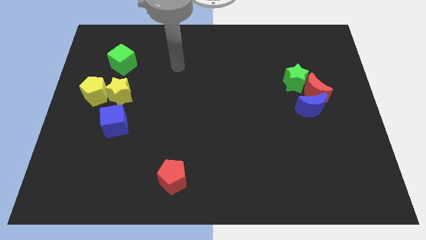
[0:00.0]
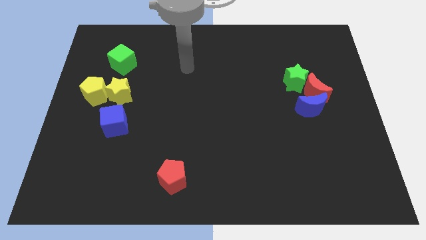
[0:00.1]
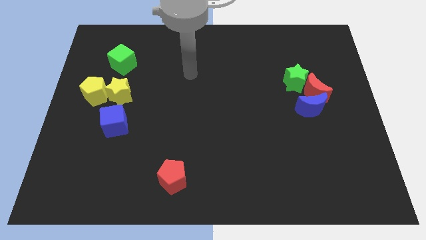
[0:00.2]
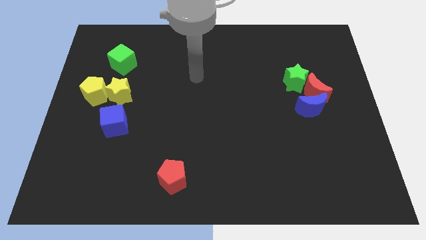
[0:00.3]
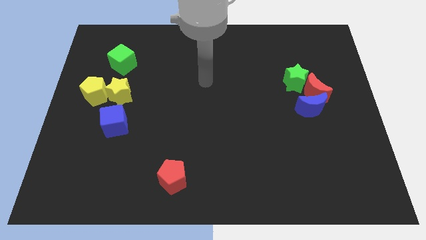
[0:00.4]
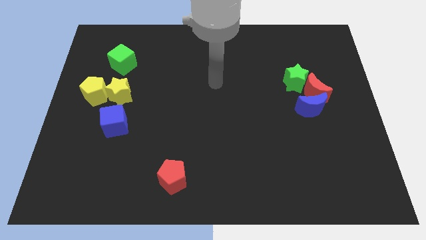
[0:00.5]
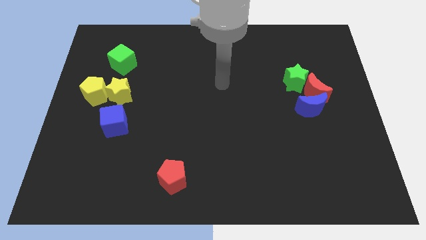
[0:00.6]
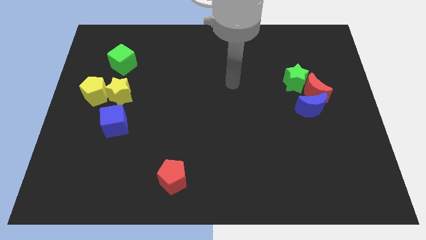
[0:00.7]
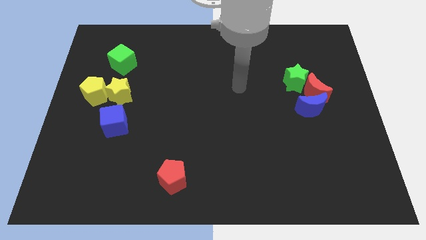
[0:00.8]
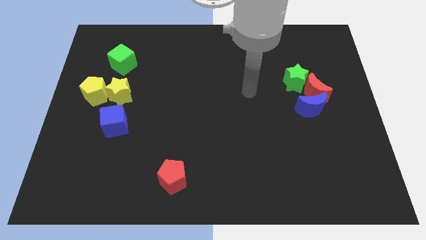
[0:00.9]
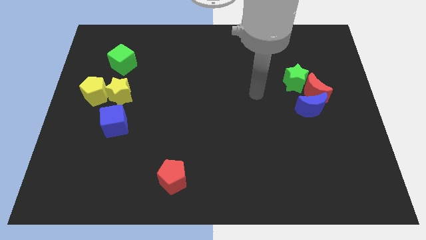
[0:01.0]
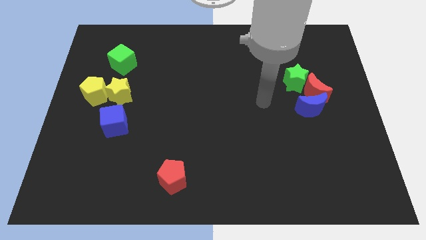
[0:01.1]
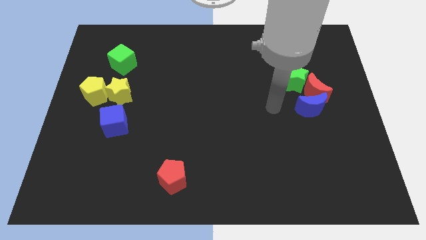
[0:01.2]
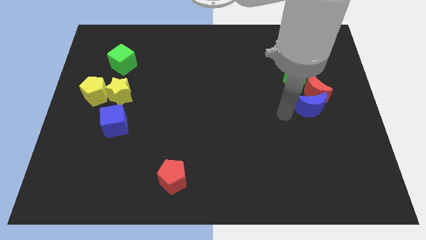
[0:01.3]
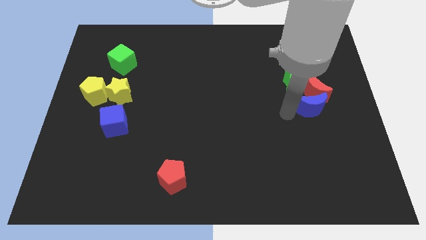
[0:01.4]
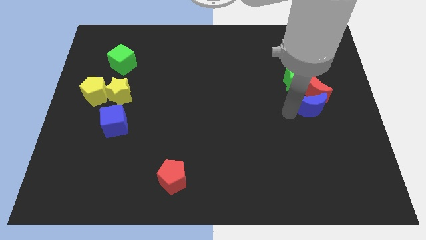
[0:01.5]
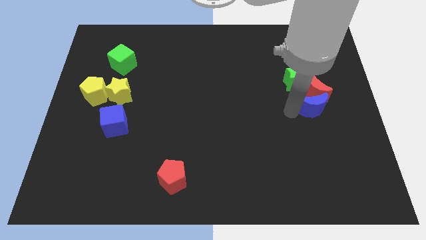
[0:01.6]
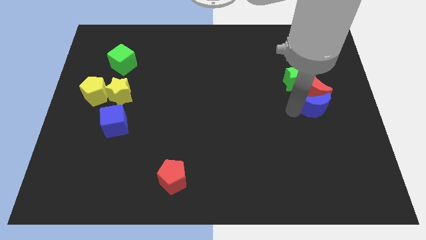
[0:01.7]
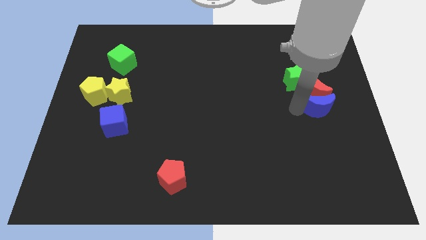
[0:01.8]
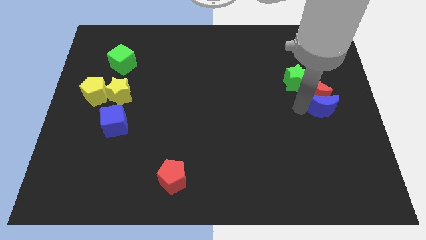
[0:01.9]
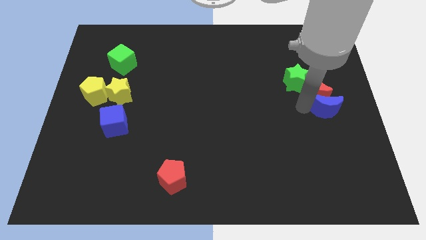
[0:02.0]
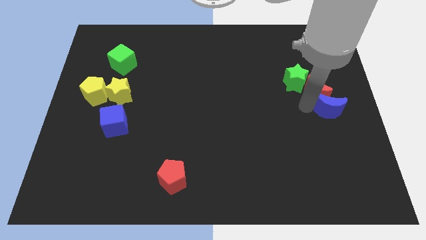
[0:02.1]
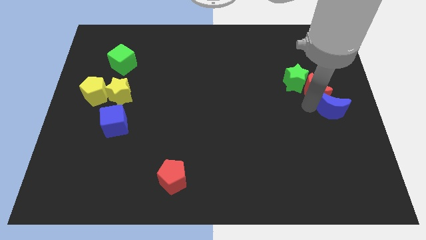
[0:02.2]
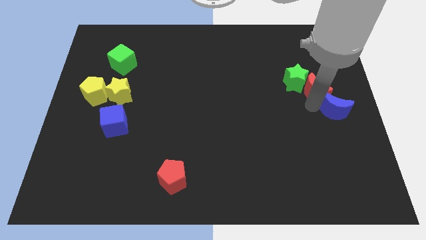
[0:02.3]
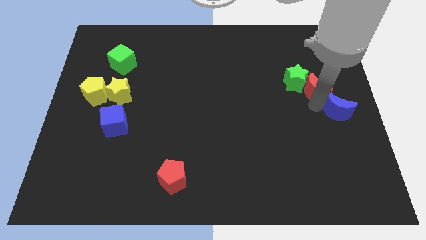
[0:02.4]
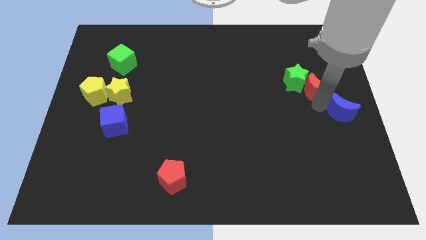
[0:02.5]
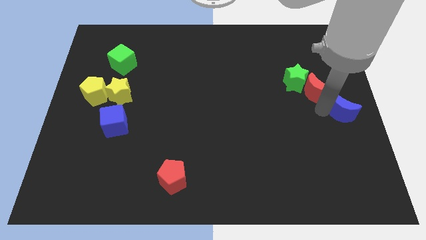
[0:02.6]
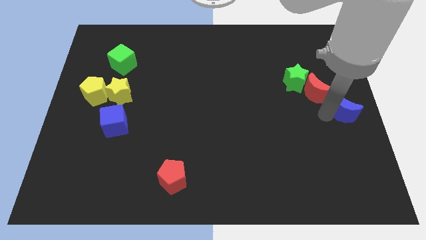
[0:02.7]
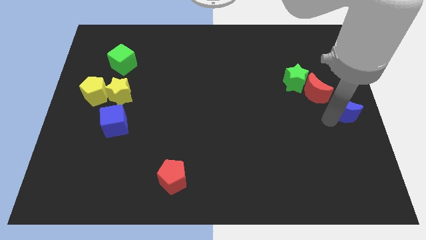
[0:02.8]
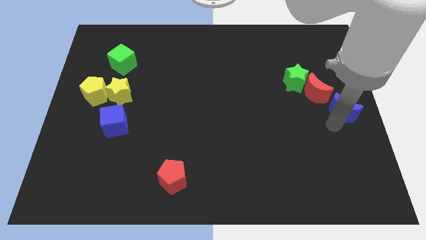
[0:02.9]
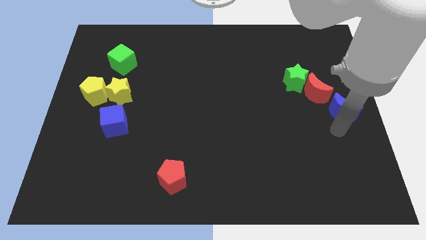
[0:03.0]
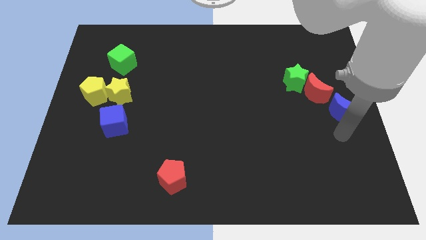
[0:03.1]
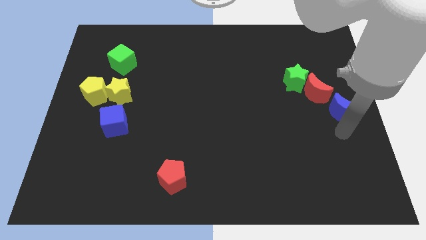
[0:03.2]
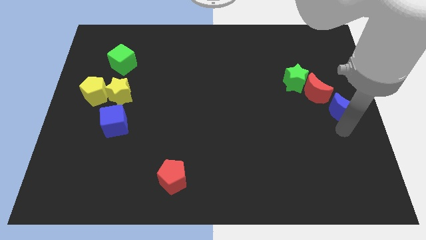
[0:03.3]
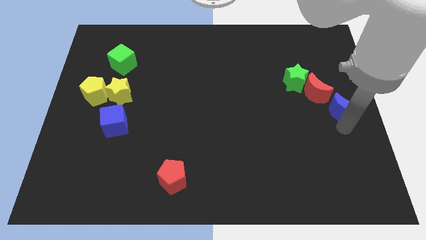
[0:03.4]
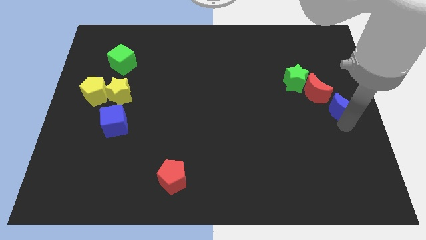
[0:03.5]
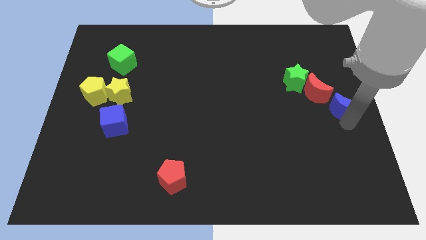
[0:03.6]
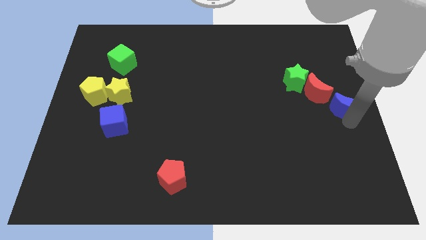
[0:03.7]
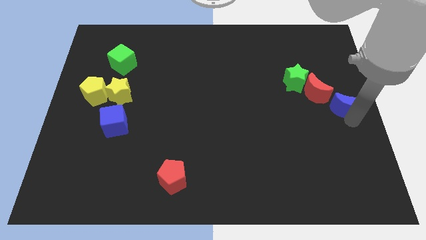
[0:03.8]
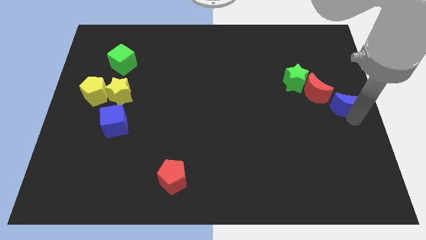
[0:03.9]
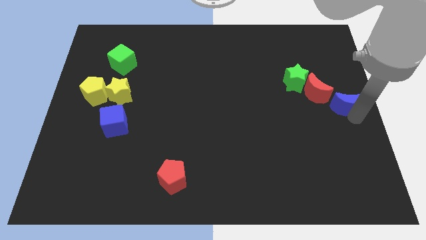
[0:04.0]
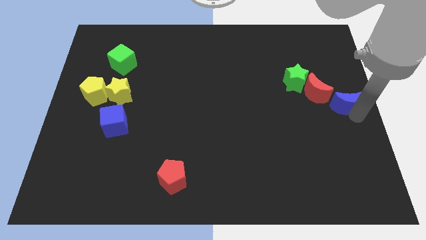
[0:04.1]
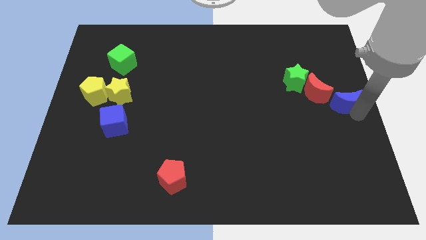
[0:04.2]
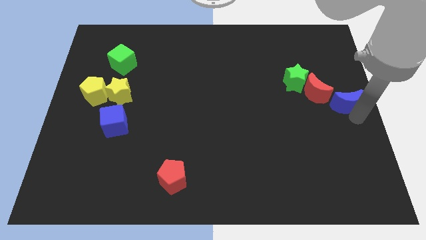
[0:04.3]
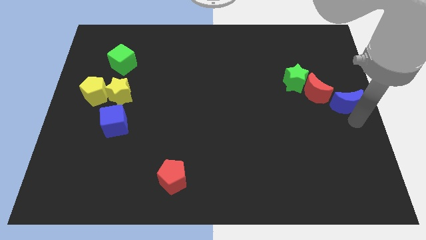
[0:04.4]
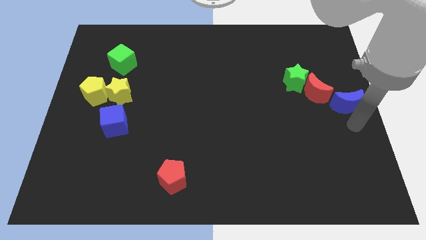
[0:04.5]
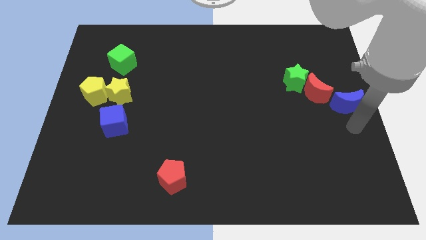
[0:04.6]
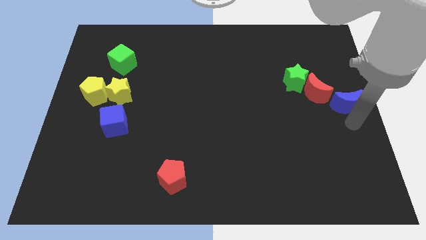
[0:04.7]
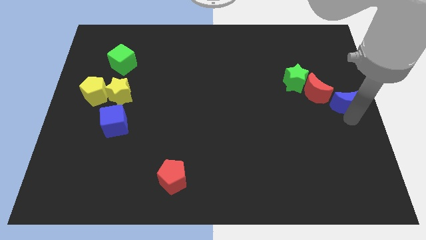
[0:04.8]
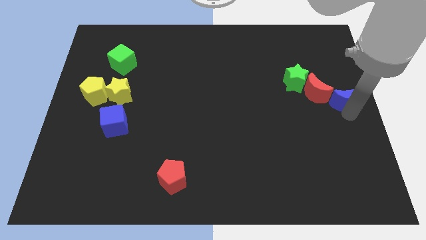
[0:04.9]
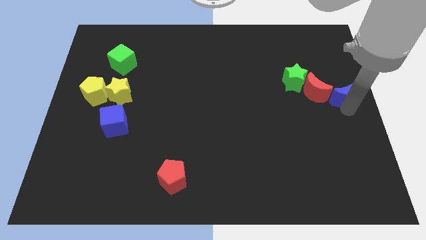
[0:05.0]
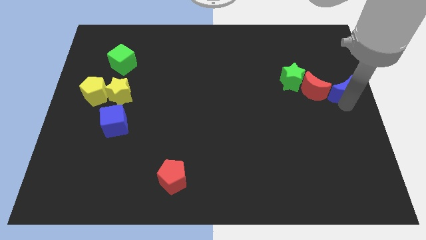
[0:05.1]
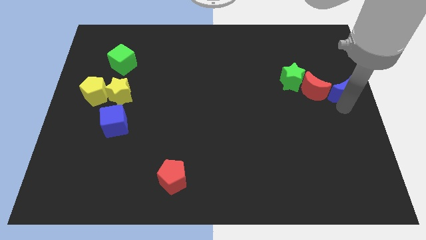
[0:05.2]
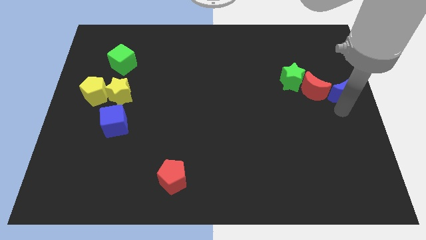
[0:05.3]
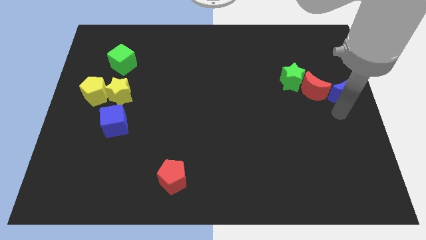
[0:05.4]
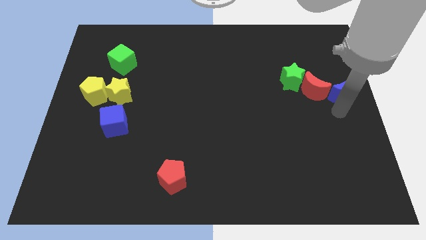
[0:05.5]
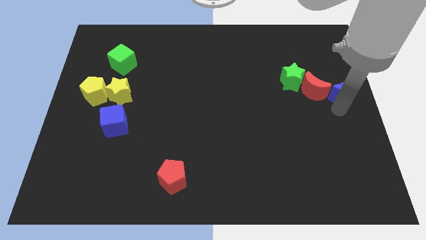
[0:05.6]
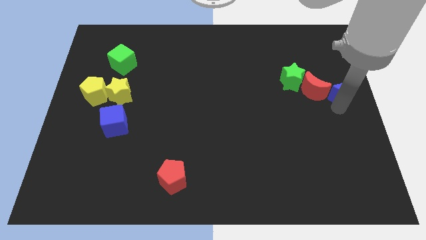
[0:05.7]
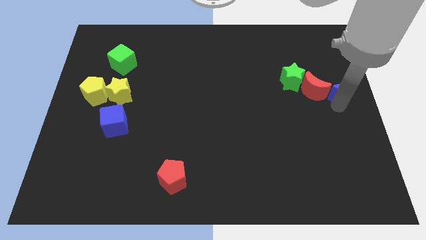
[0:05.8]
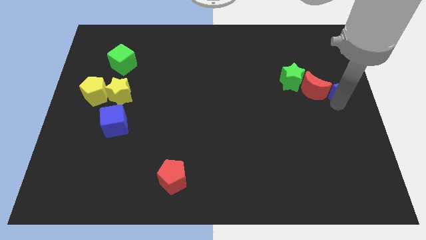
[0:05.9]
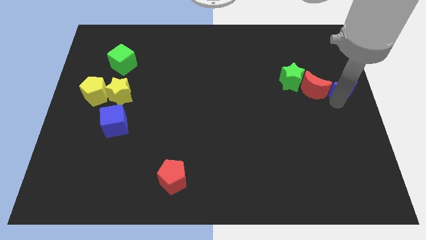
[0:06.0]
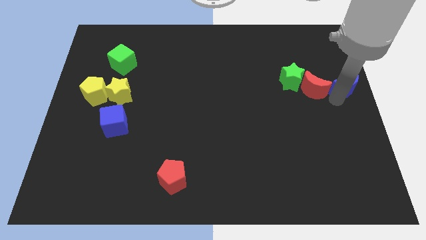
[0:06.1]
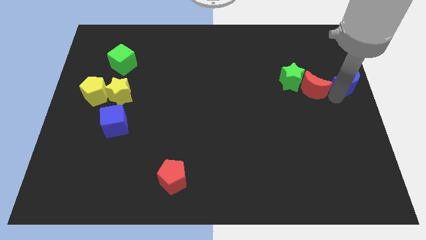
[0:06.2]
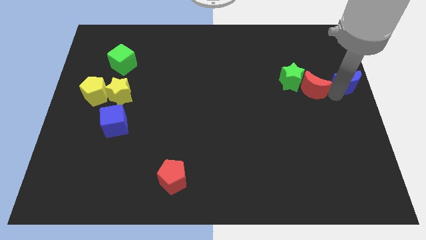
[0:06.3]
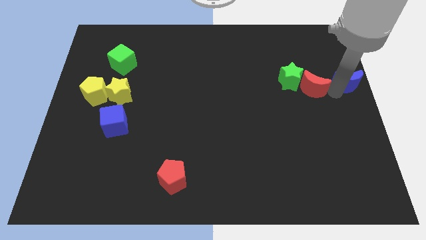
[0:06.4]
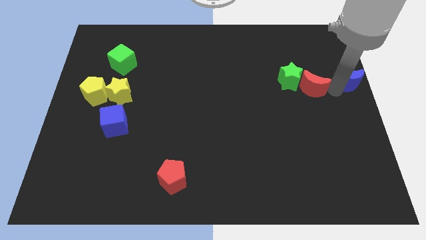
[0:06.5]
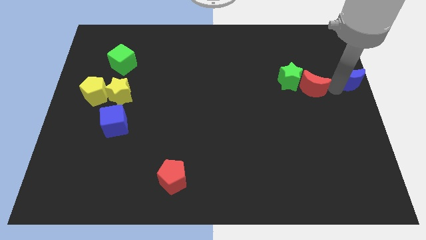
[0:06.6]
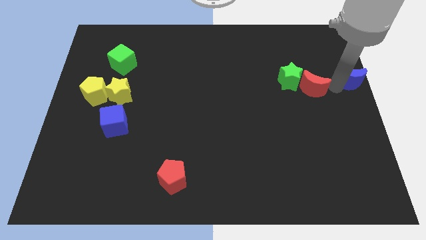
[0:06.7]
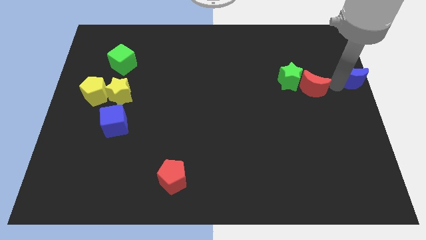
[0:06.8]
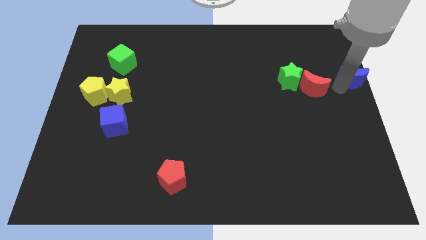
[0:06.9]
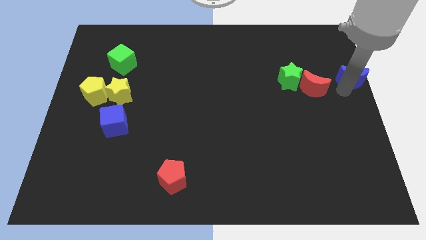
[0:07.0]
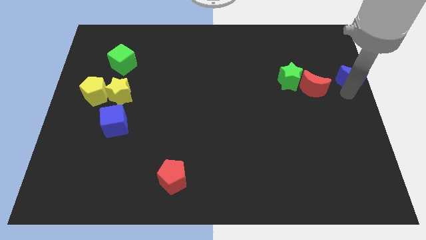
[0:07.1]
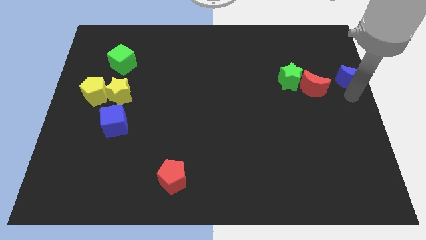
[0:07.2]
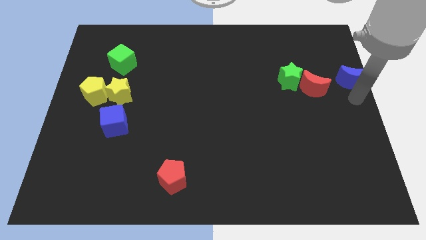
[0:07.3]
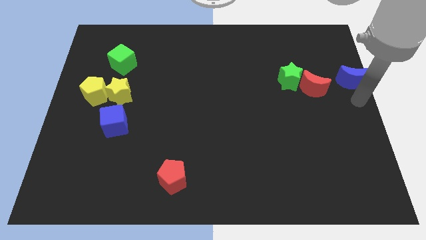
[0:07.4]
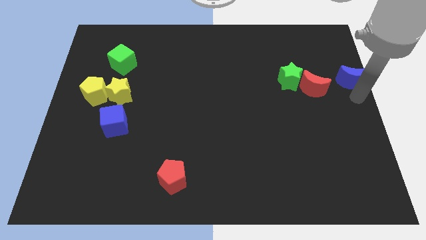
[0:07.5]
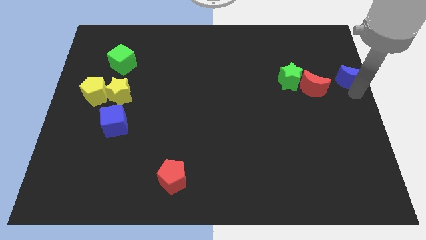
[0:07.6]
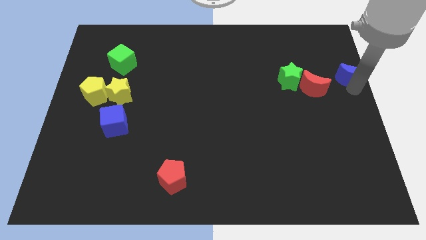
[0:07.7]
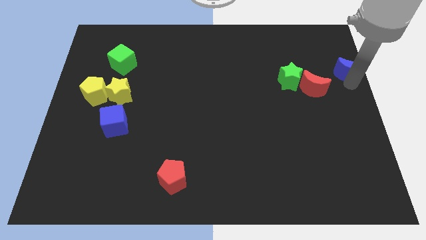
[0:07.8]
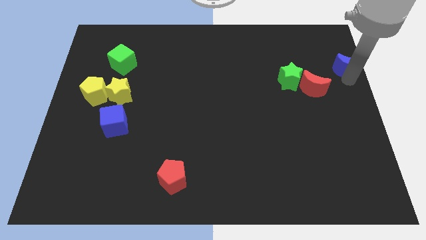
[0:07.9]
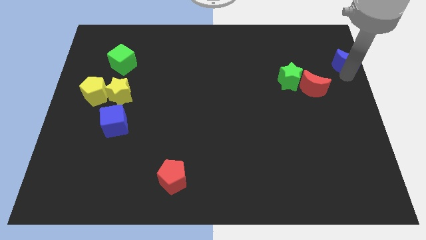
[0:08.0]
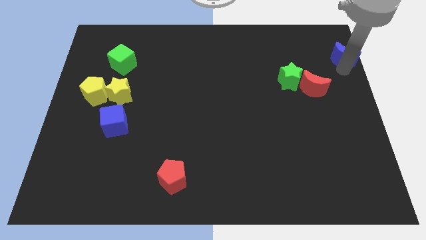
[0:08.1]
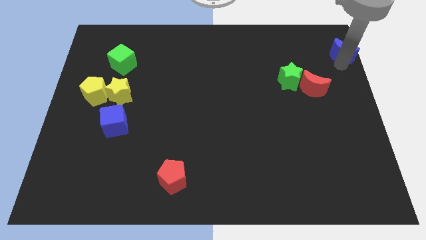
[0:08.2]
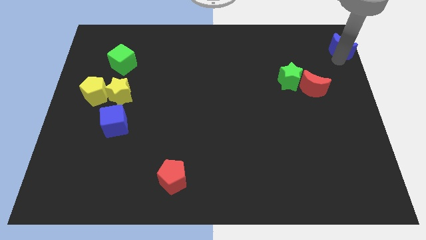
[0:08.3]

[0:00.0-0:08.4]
move the blue moon to the top right of the board
